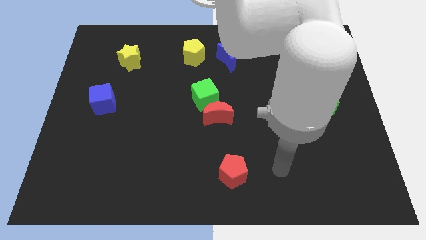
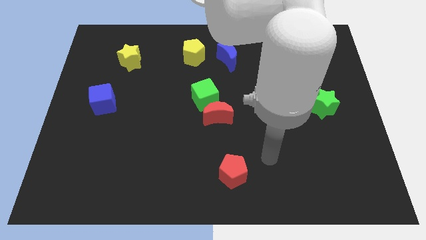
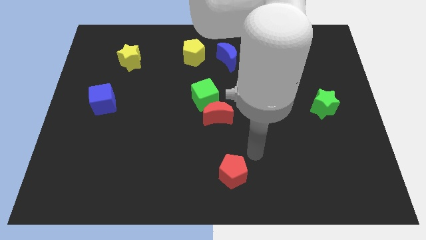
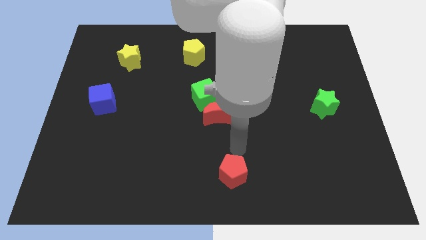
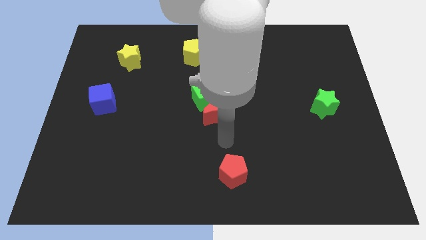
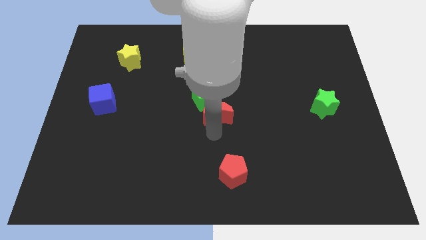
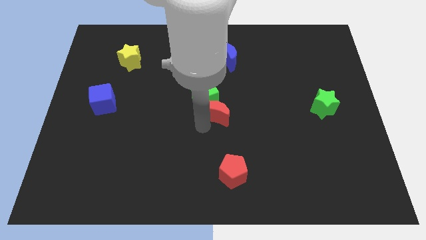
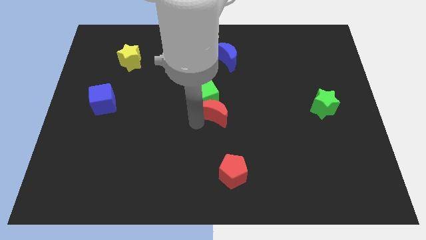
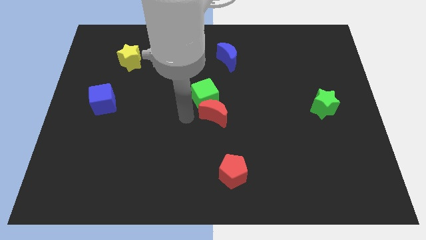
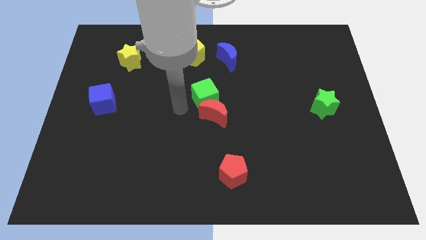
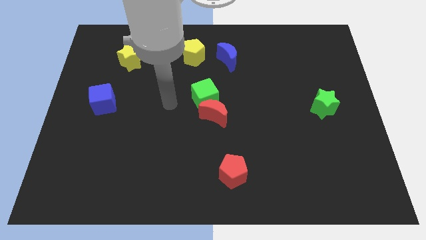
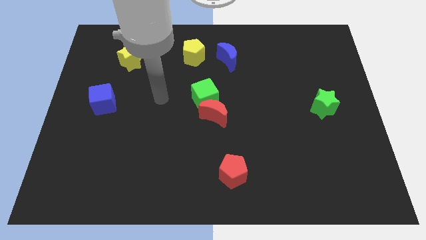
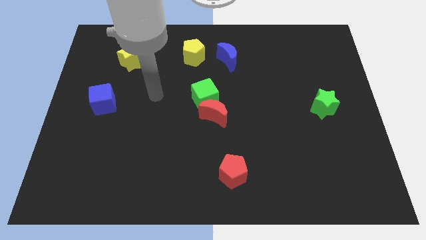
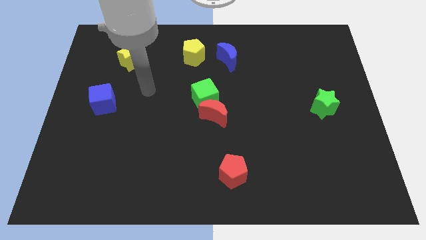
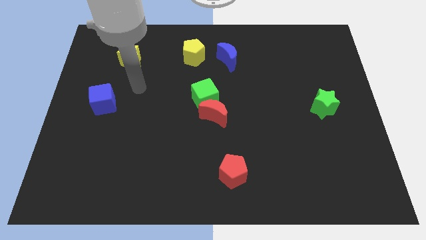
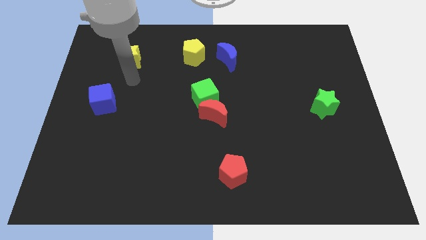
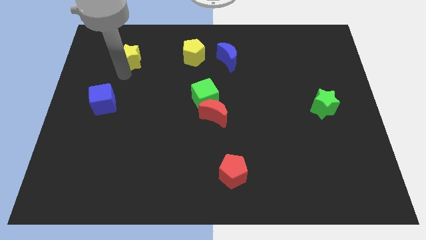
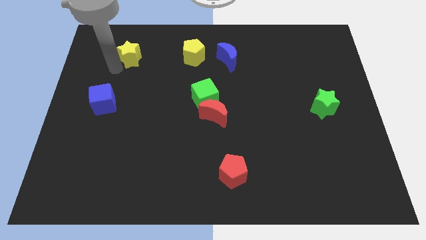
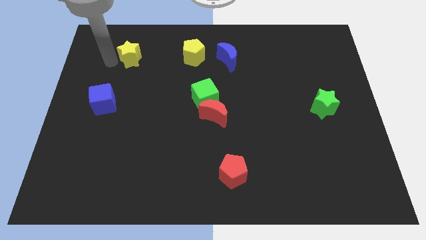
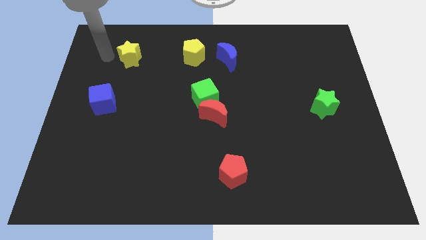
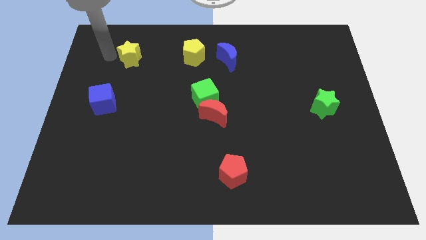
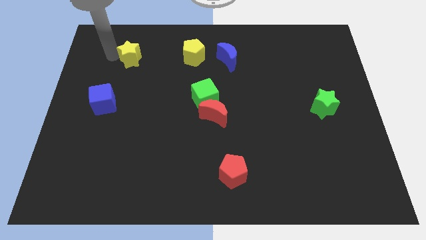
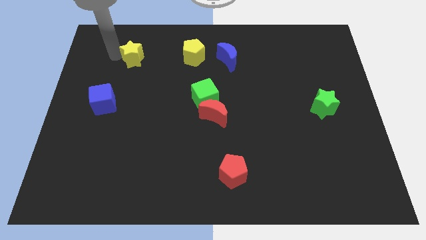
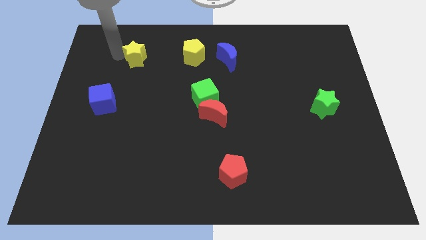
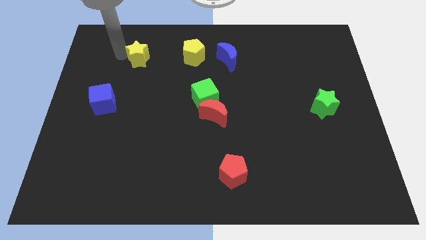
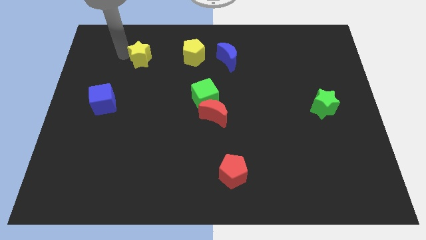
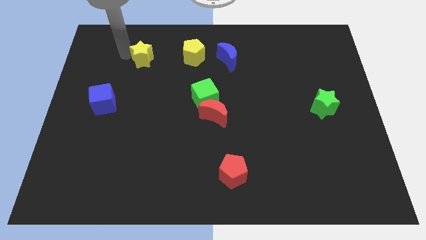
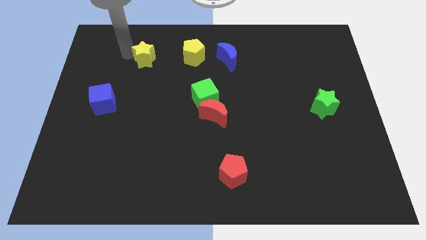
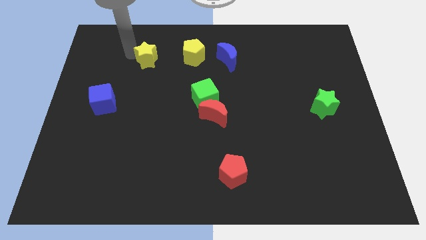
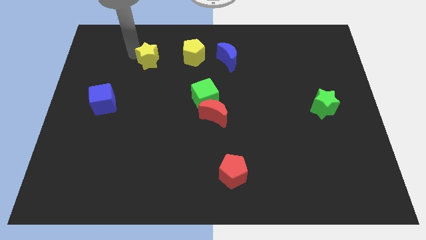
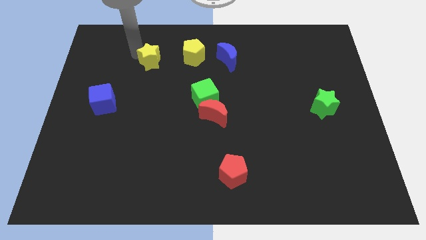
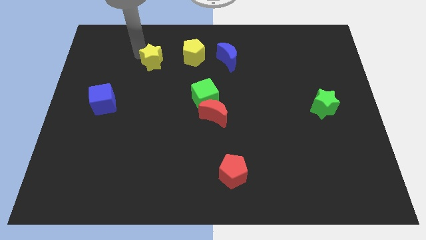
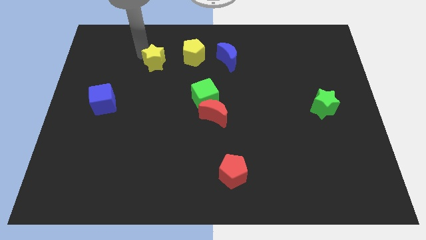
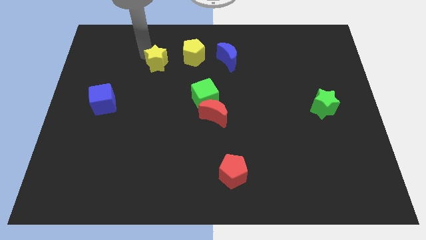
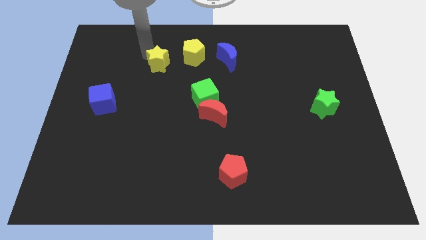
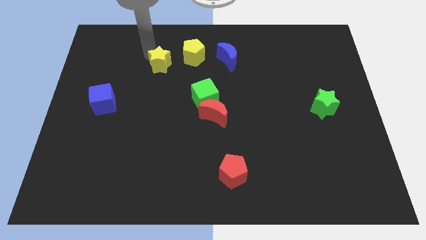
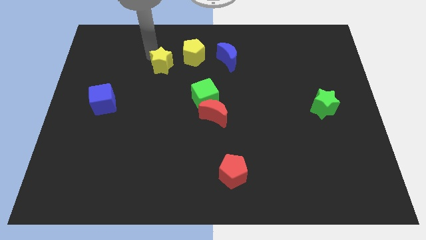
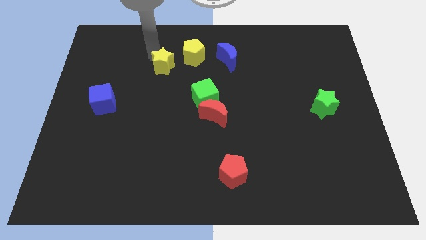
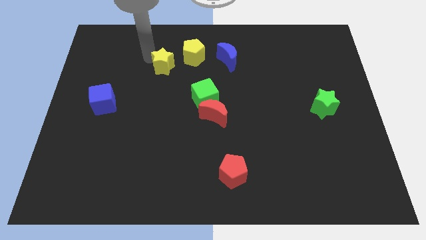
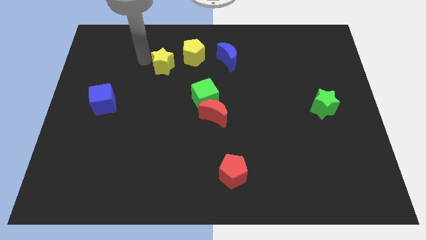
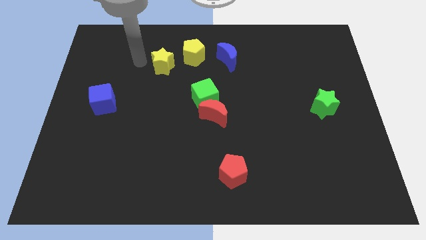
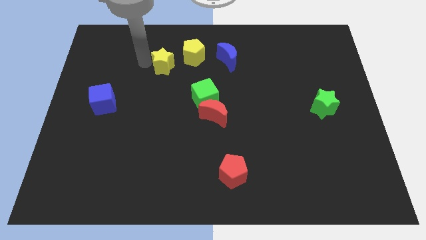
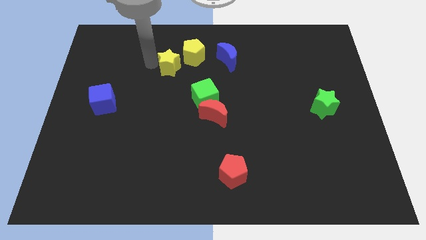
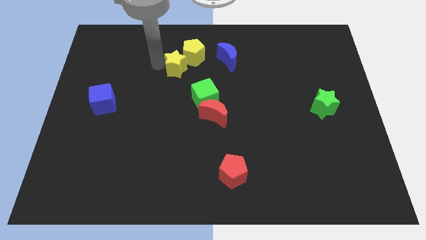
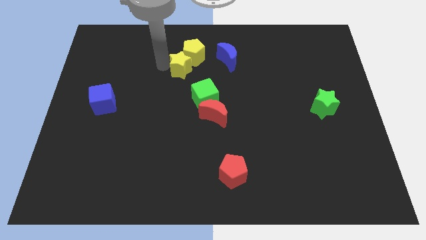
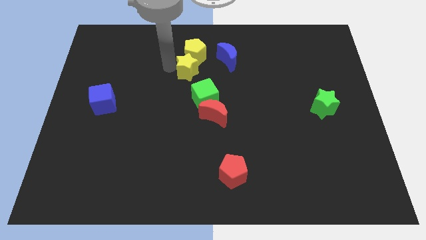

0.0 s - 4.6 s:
slide the yellow star above the green cube

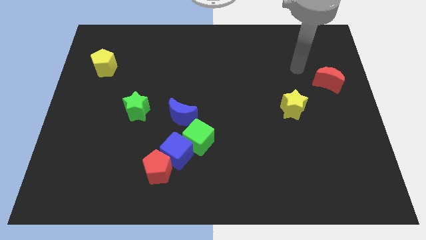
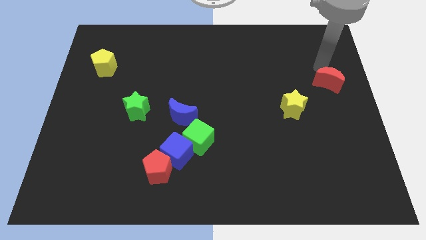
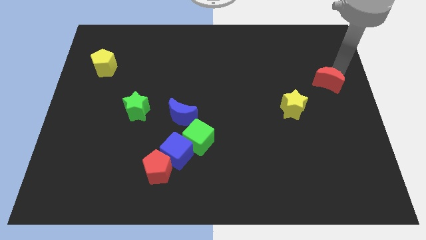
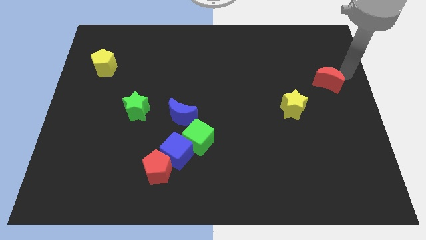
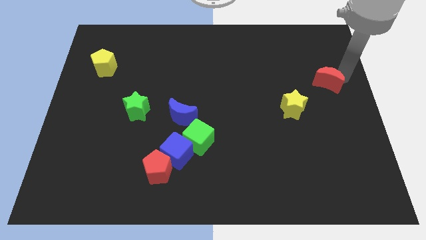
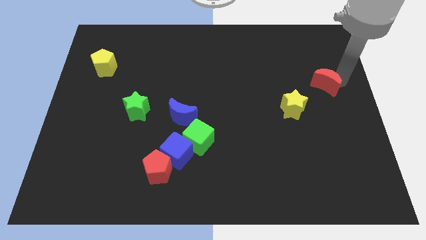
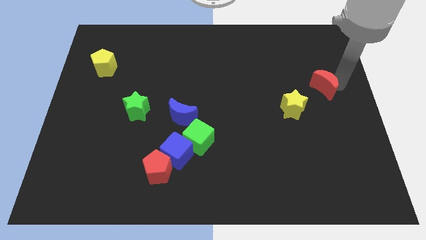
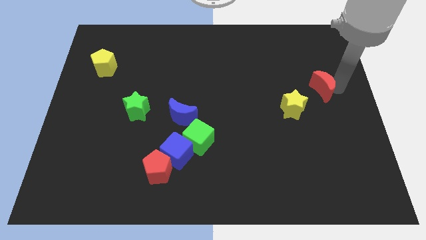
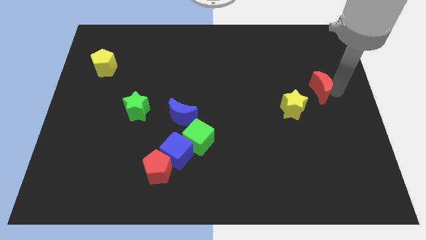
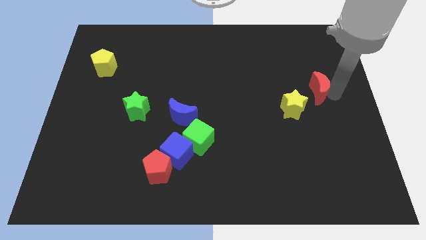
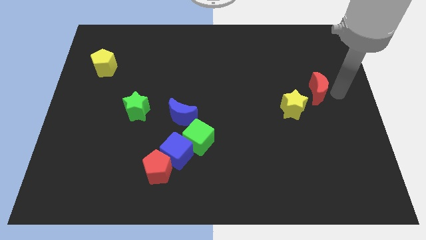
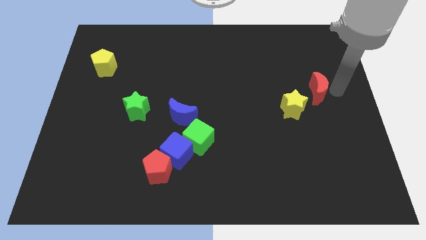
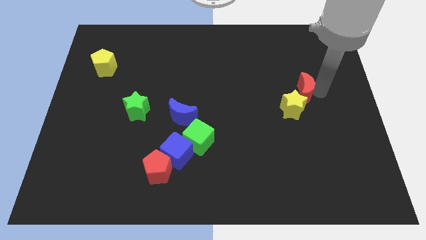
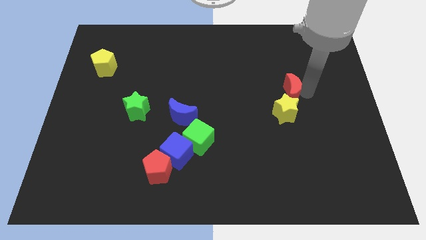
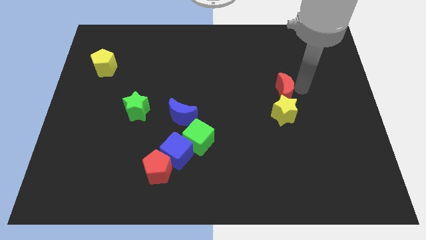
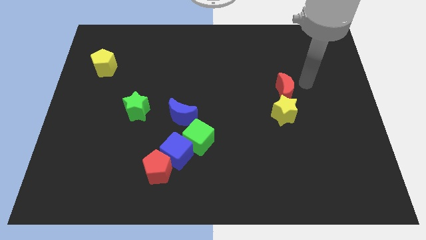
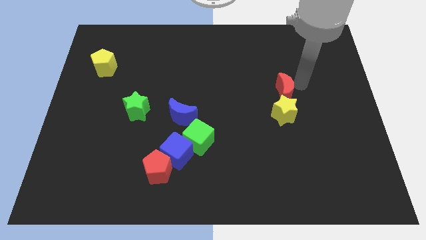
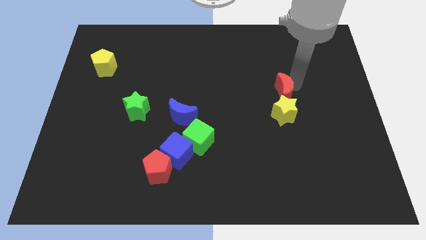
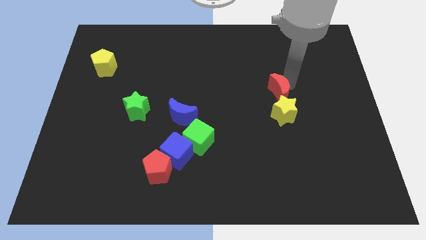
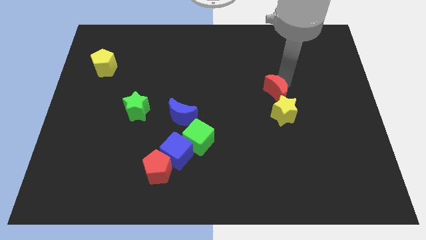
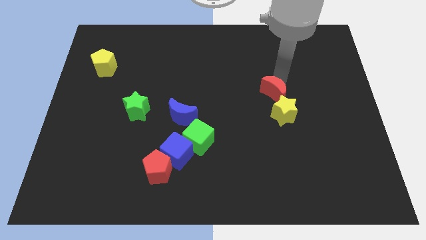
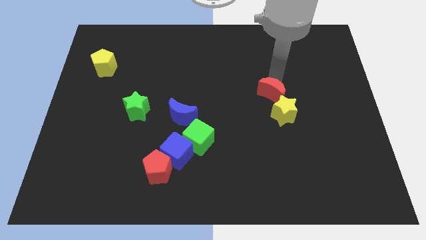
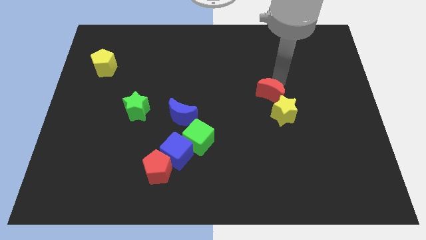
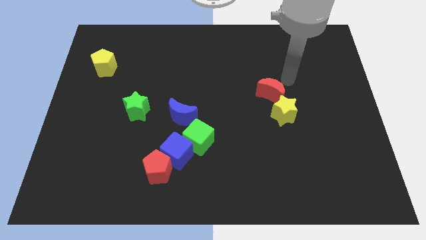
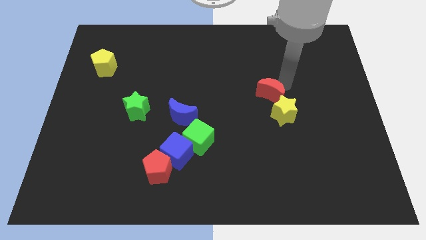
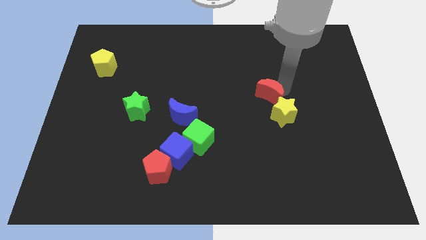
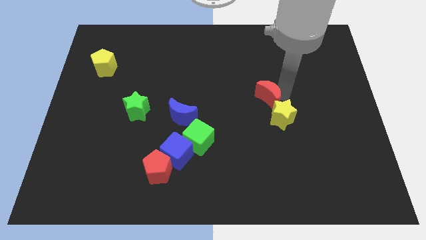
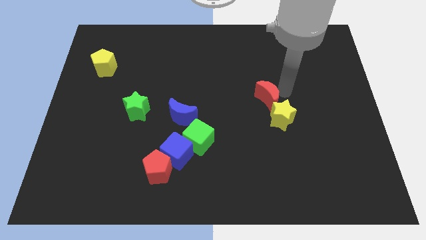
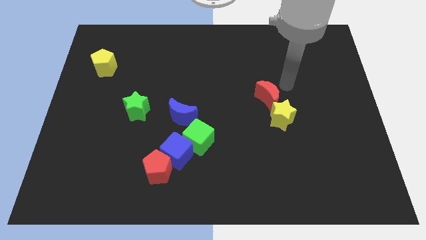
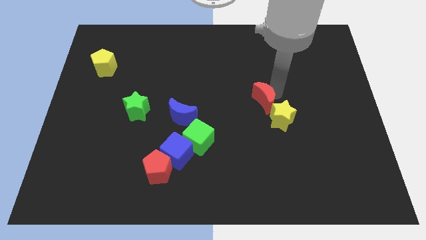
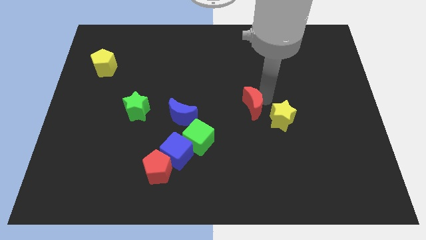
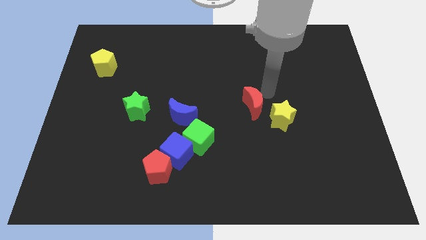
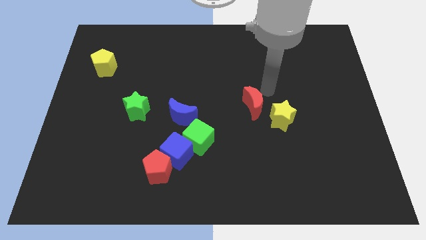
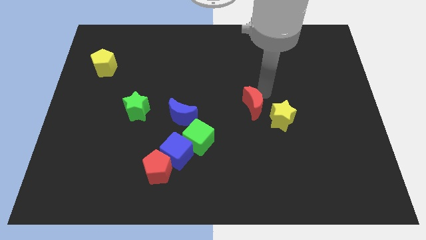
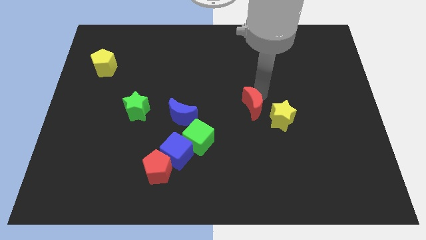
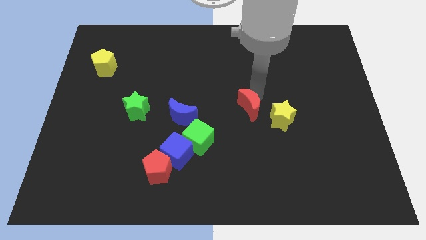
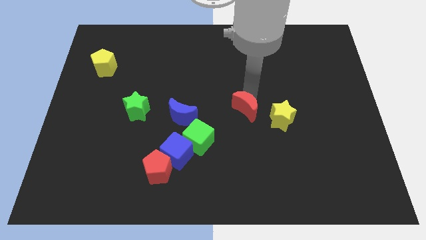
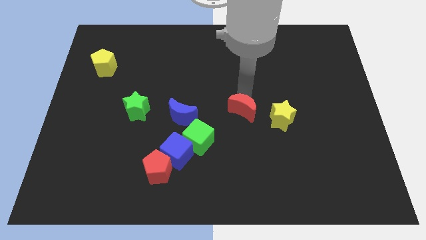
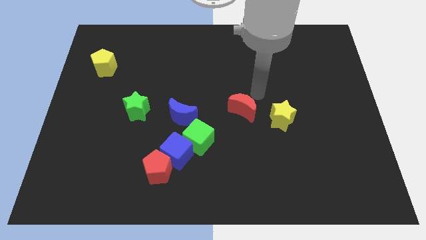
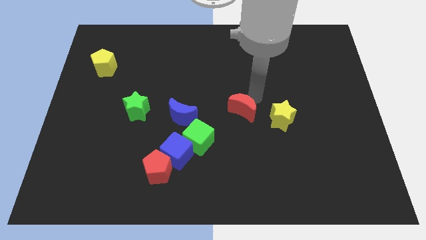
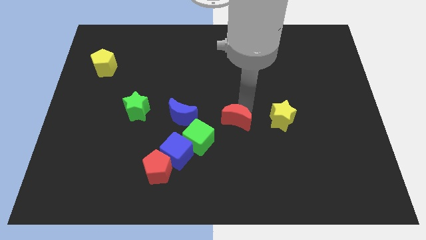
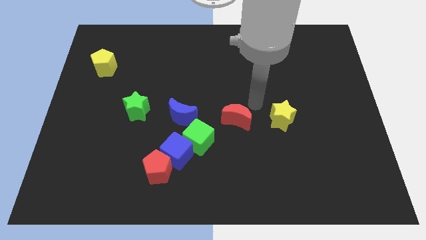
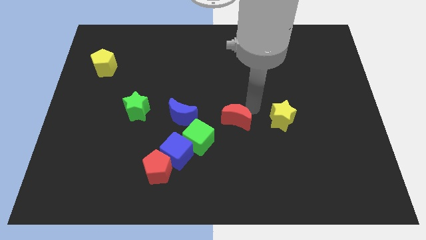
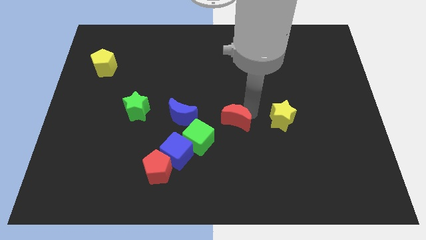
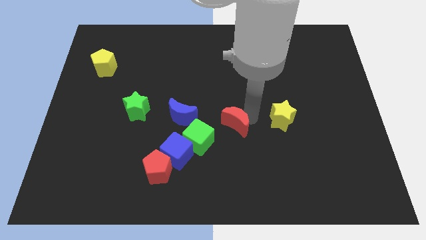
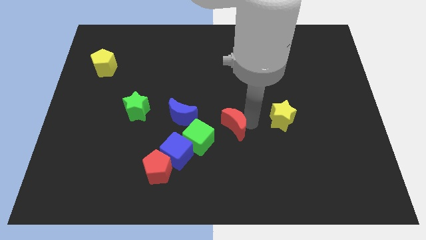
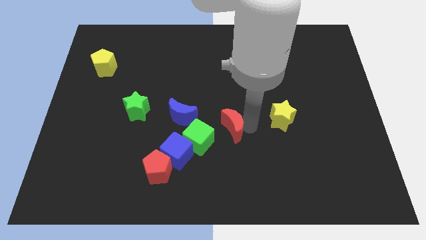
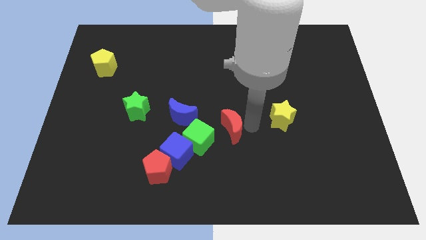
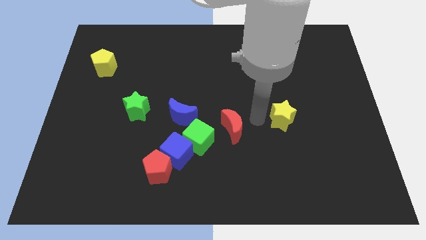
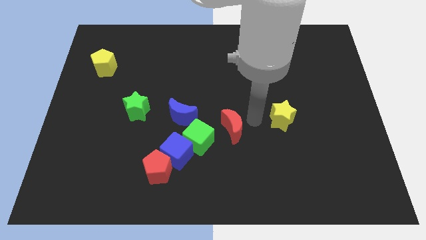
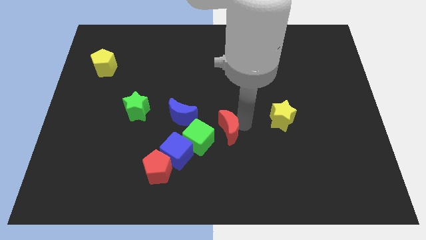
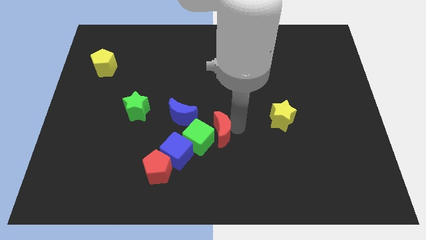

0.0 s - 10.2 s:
move the red moon diagonally down and to the right of the blue moon
